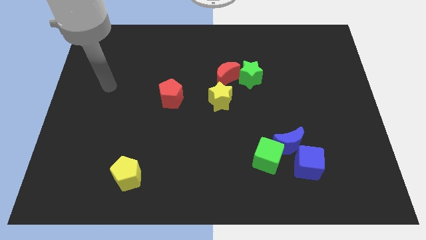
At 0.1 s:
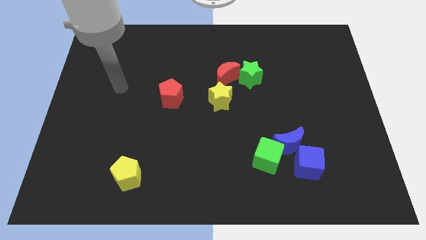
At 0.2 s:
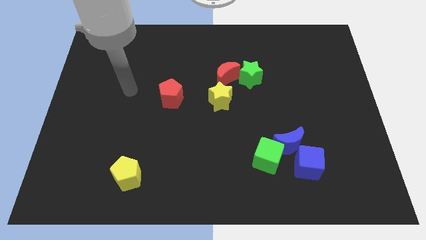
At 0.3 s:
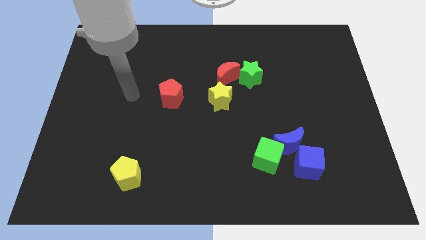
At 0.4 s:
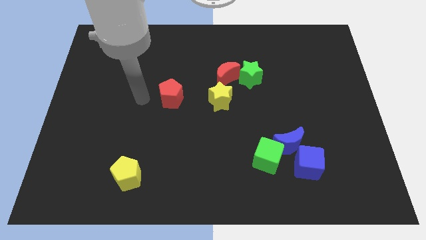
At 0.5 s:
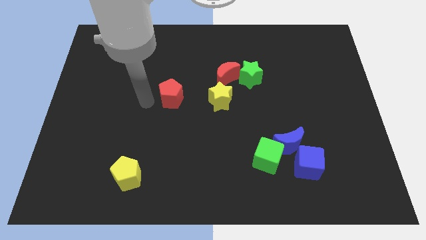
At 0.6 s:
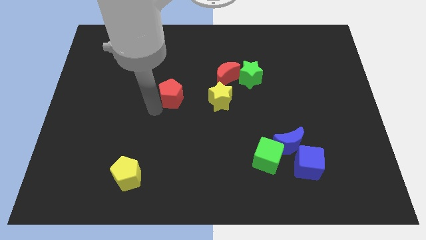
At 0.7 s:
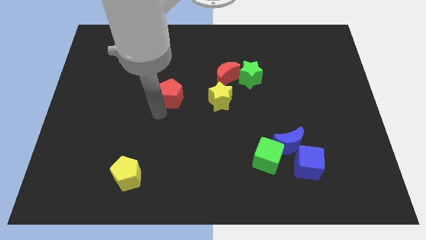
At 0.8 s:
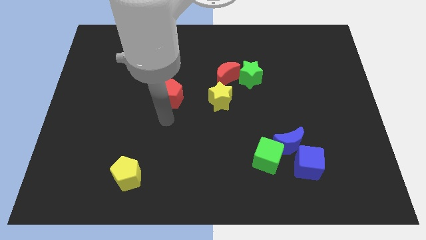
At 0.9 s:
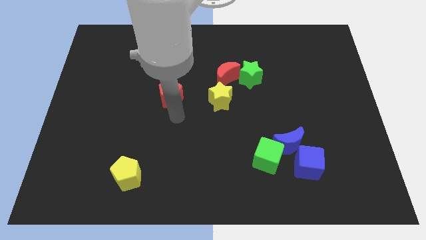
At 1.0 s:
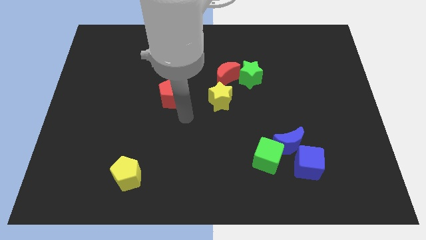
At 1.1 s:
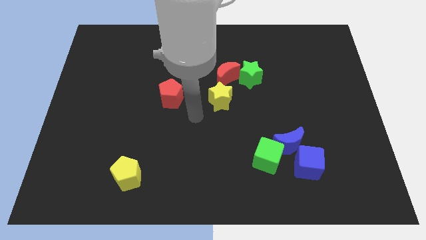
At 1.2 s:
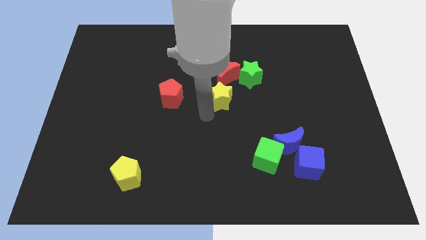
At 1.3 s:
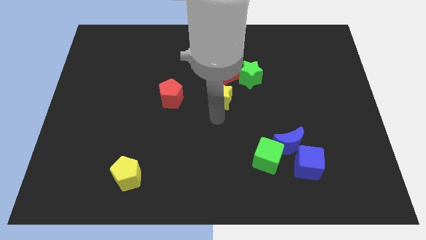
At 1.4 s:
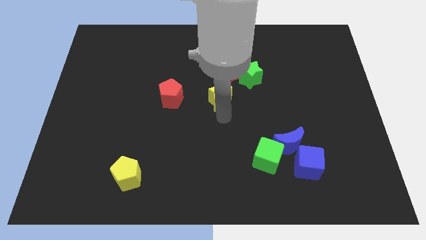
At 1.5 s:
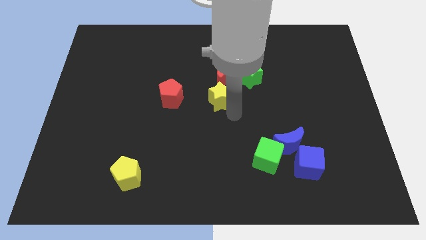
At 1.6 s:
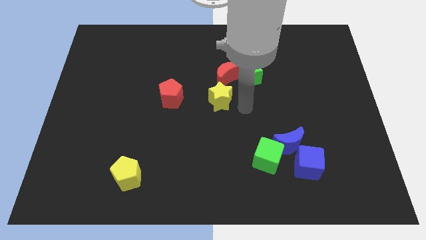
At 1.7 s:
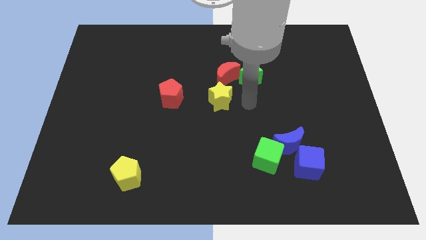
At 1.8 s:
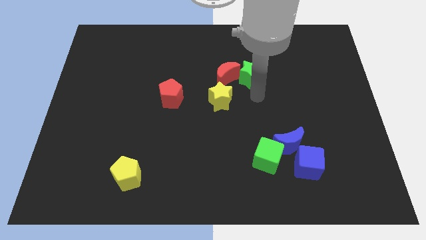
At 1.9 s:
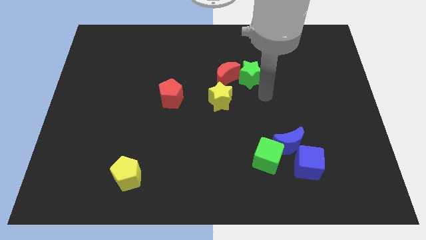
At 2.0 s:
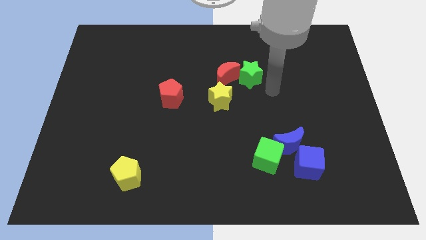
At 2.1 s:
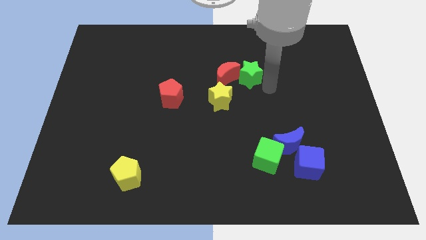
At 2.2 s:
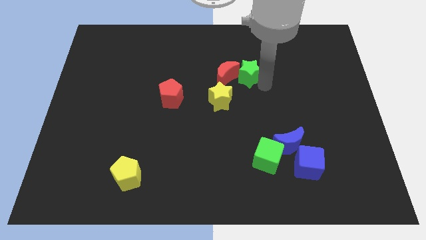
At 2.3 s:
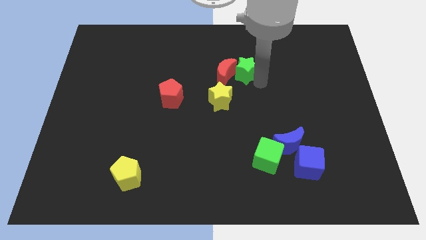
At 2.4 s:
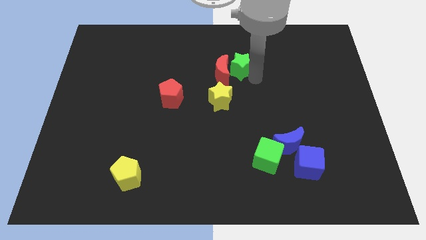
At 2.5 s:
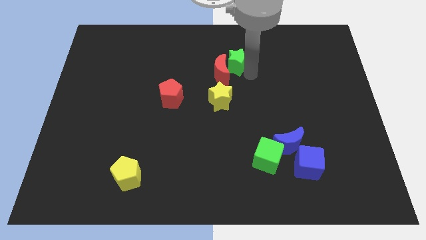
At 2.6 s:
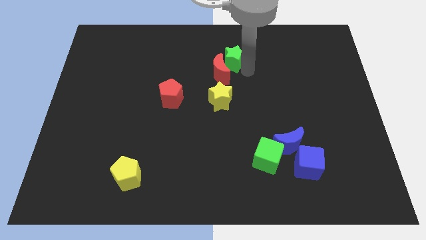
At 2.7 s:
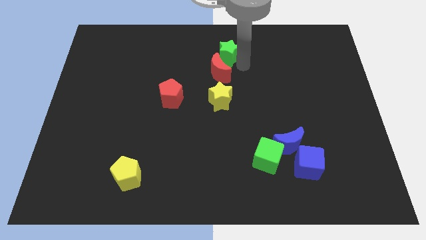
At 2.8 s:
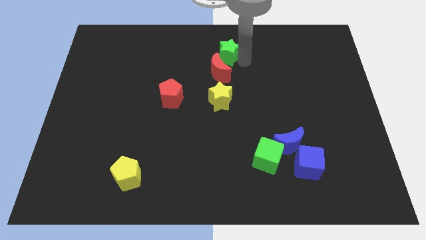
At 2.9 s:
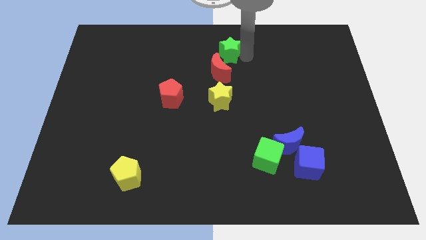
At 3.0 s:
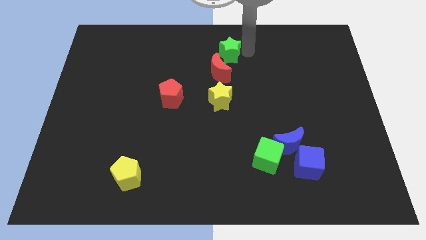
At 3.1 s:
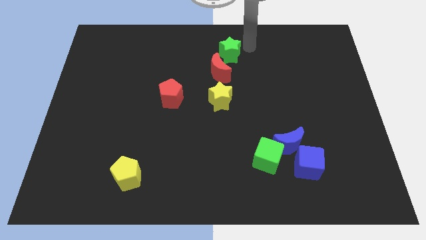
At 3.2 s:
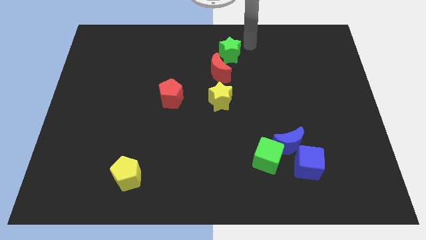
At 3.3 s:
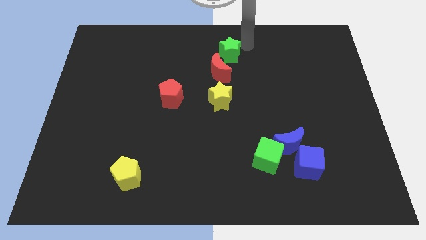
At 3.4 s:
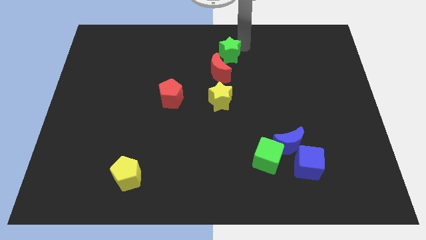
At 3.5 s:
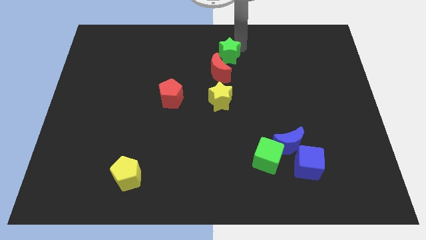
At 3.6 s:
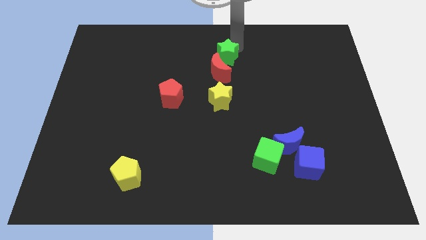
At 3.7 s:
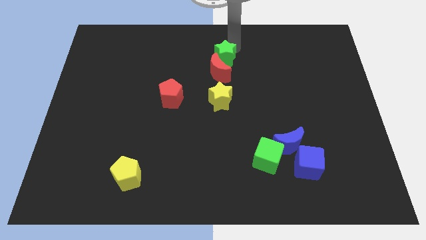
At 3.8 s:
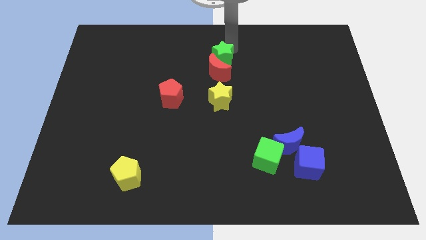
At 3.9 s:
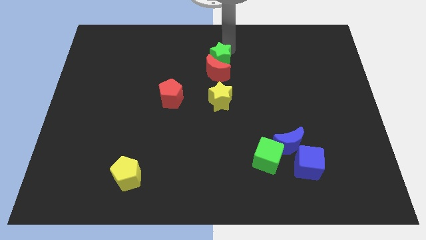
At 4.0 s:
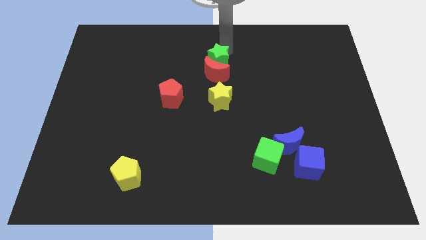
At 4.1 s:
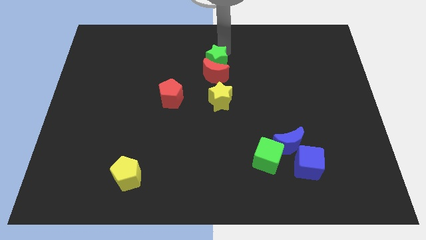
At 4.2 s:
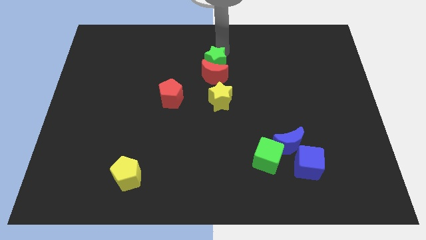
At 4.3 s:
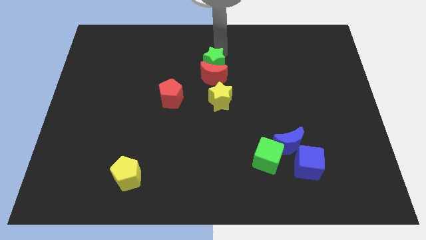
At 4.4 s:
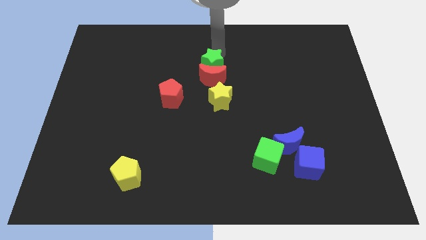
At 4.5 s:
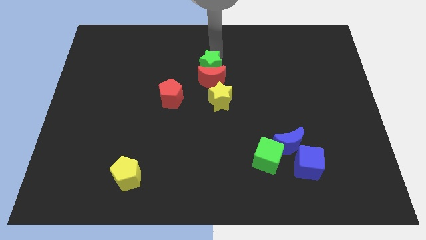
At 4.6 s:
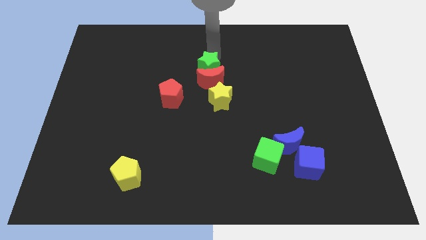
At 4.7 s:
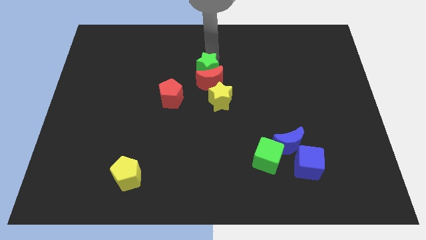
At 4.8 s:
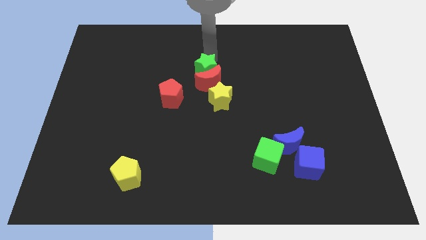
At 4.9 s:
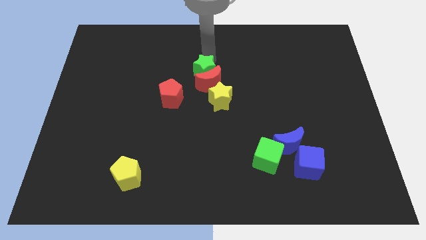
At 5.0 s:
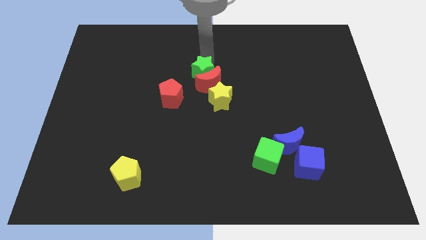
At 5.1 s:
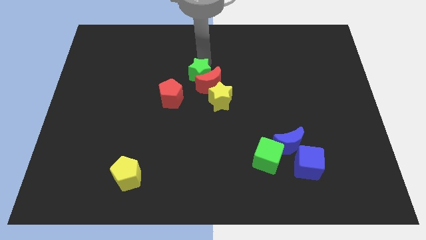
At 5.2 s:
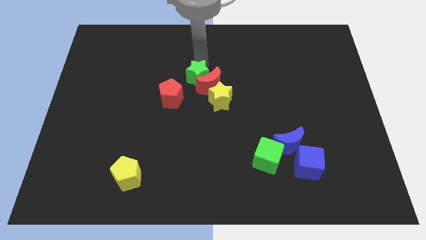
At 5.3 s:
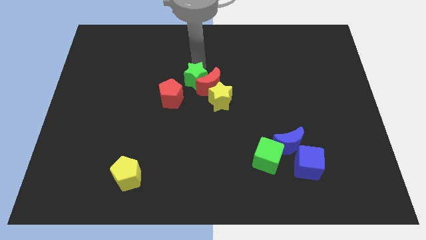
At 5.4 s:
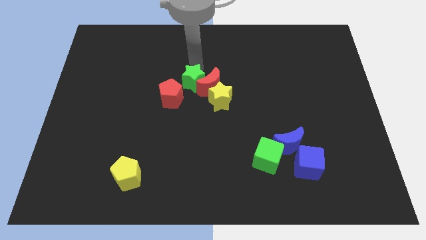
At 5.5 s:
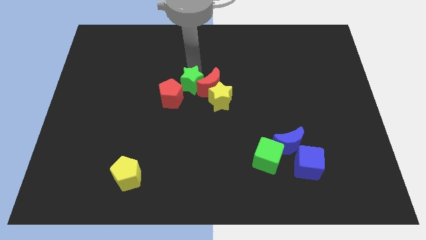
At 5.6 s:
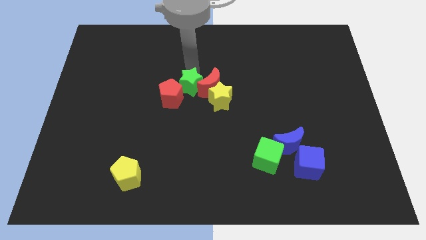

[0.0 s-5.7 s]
put the green star towards the red pentagon

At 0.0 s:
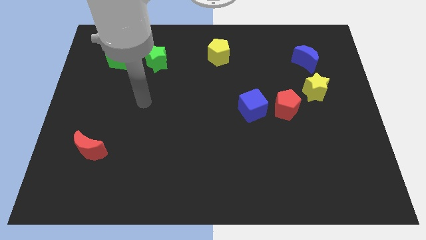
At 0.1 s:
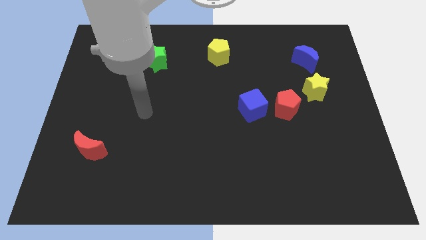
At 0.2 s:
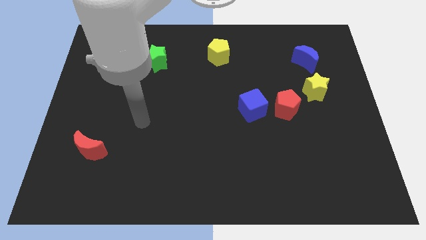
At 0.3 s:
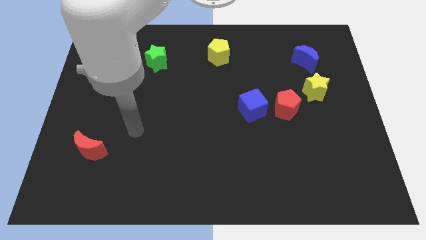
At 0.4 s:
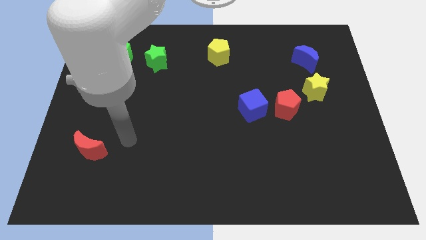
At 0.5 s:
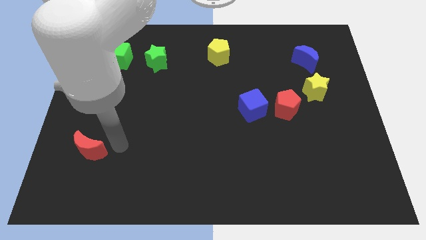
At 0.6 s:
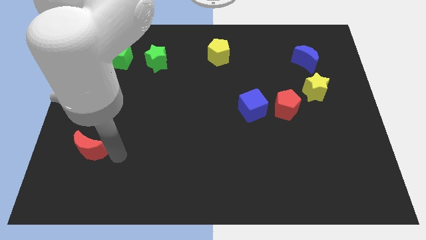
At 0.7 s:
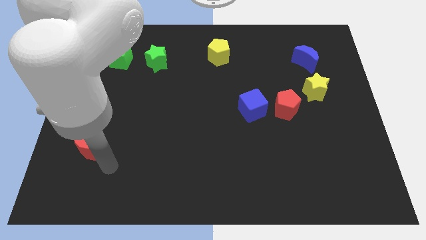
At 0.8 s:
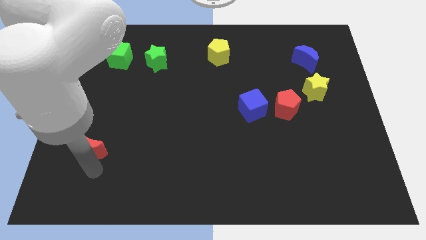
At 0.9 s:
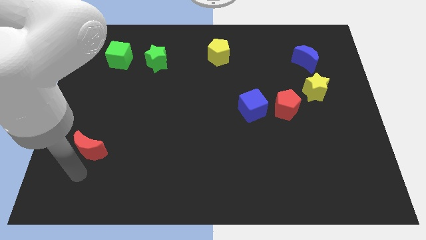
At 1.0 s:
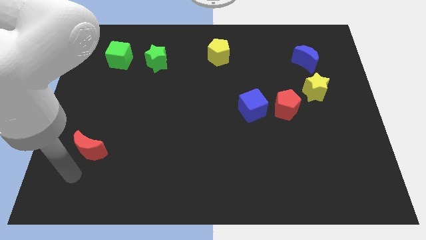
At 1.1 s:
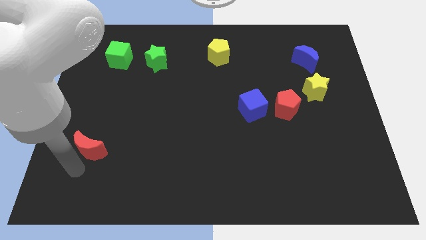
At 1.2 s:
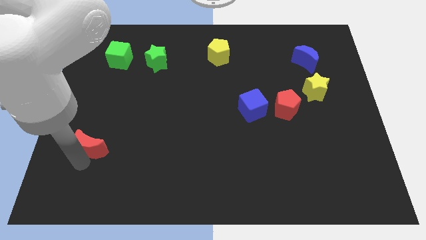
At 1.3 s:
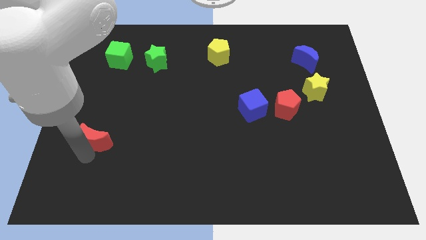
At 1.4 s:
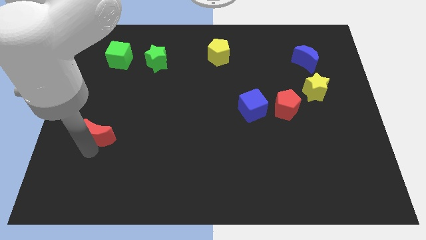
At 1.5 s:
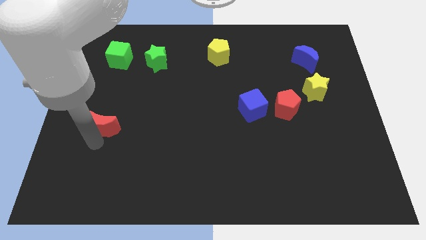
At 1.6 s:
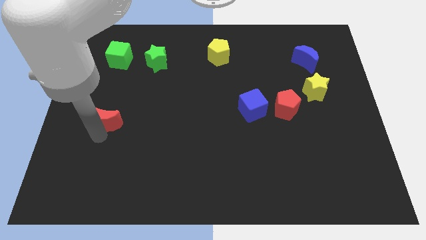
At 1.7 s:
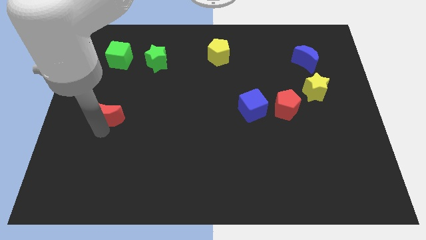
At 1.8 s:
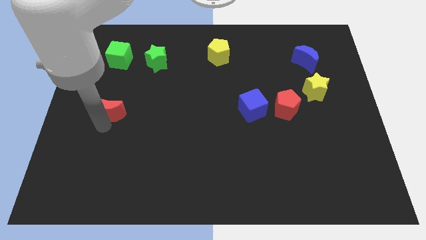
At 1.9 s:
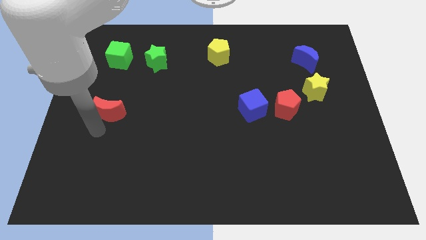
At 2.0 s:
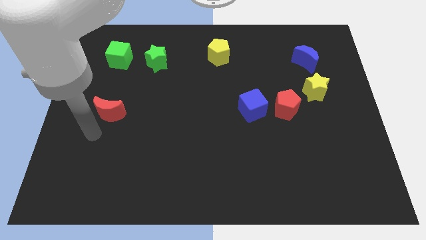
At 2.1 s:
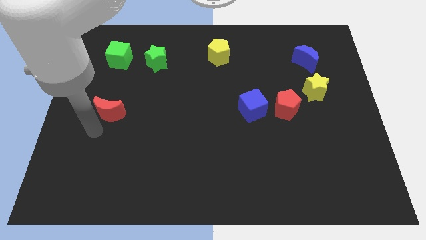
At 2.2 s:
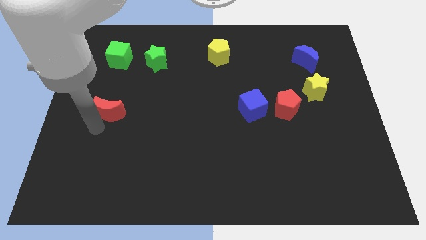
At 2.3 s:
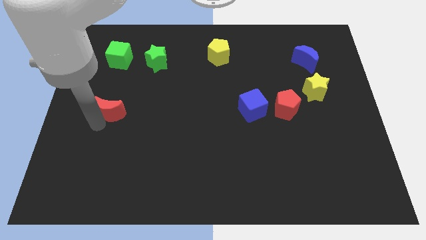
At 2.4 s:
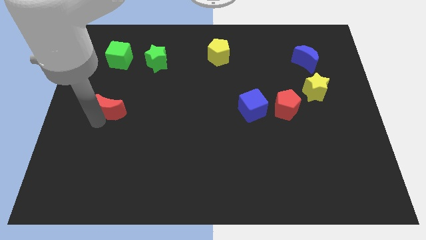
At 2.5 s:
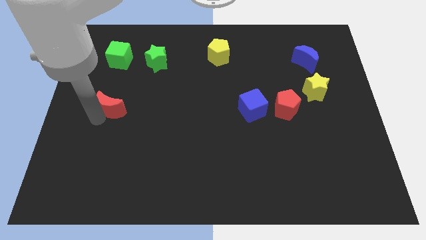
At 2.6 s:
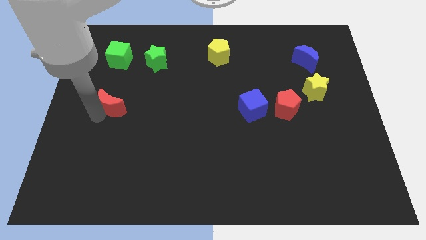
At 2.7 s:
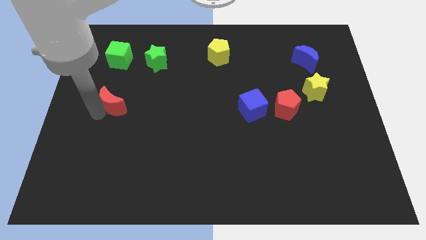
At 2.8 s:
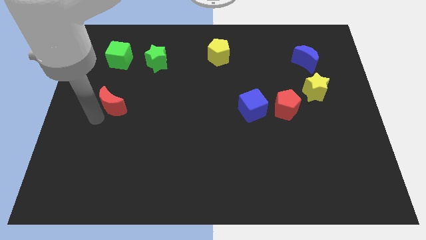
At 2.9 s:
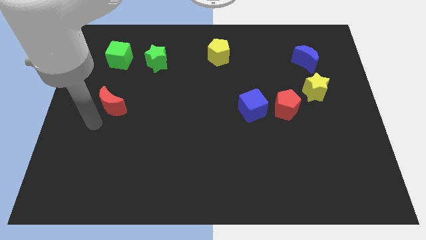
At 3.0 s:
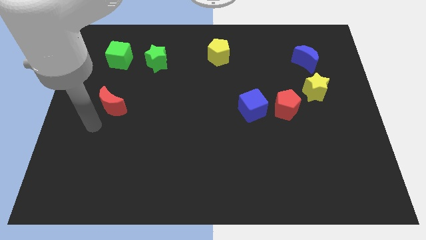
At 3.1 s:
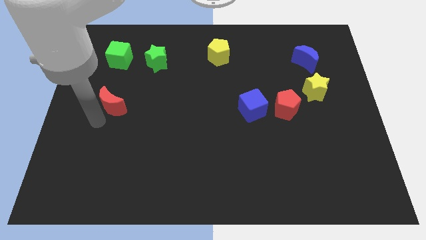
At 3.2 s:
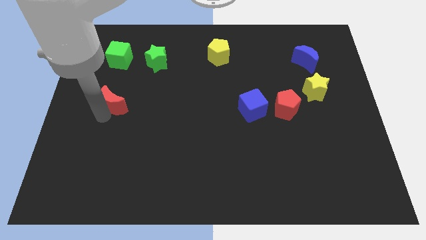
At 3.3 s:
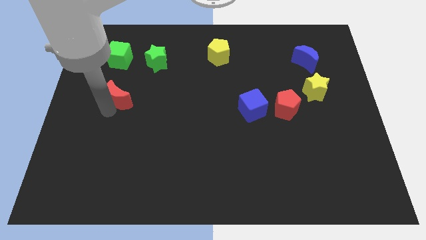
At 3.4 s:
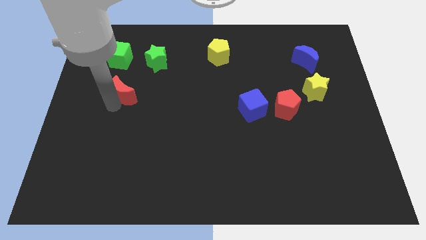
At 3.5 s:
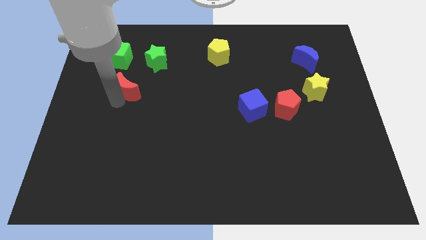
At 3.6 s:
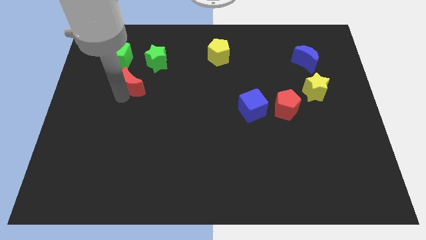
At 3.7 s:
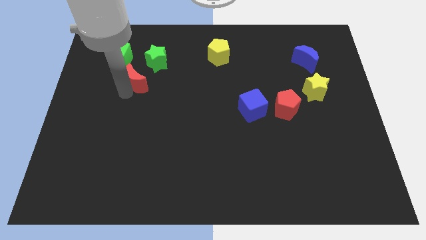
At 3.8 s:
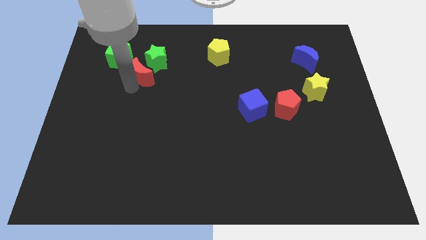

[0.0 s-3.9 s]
push the red moon next to the green star
